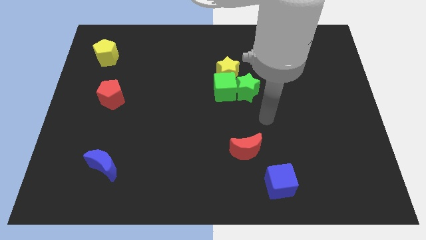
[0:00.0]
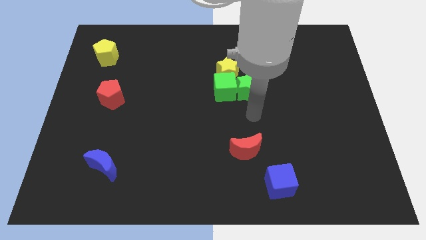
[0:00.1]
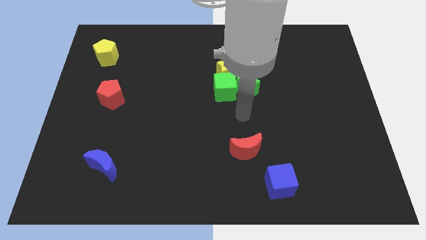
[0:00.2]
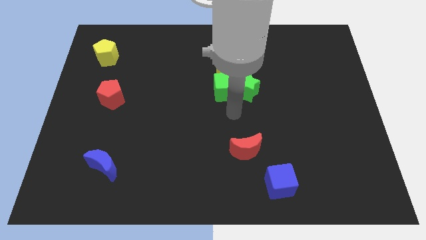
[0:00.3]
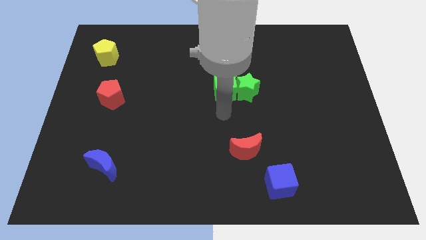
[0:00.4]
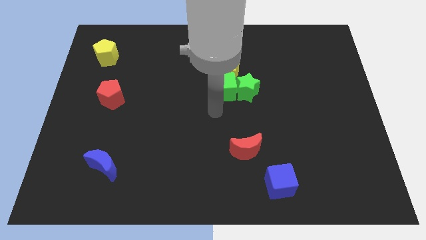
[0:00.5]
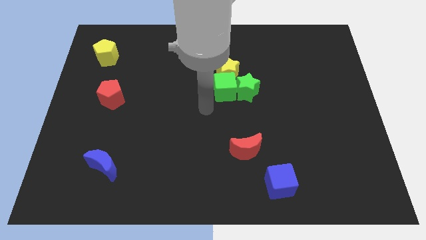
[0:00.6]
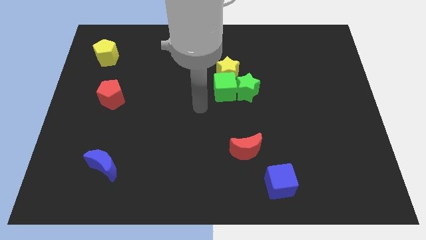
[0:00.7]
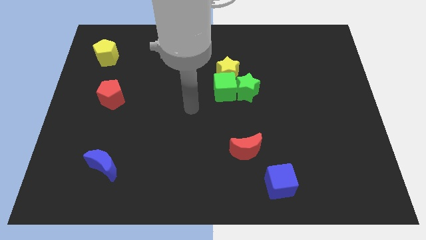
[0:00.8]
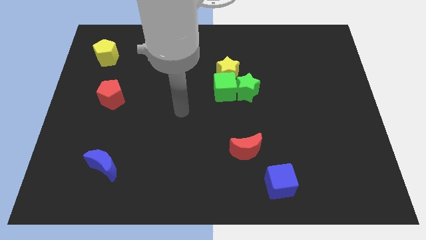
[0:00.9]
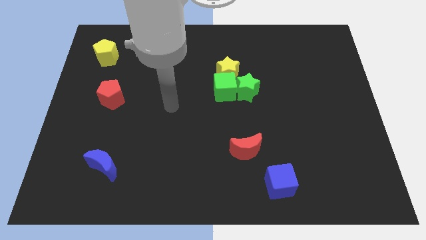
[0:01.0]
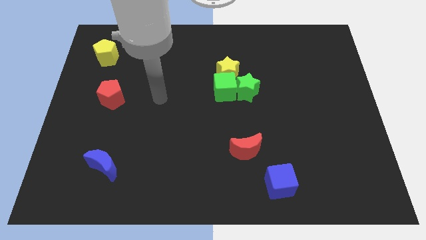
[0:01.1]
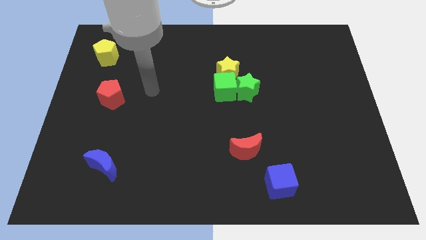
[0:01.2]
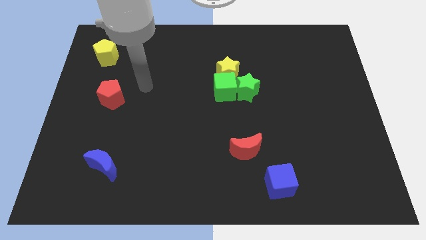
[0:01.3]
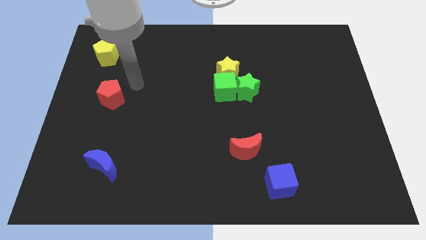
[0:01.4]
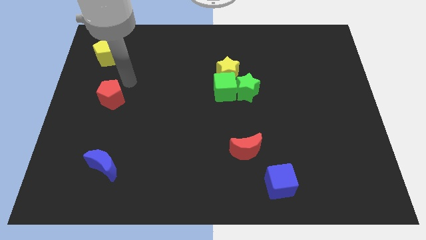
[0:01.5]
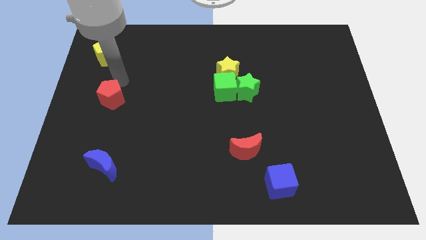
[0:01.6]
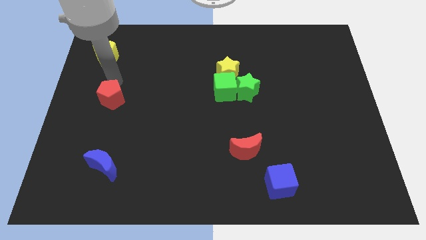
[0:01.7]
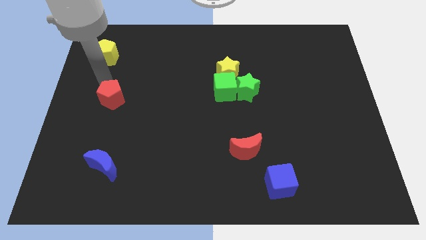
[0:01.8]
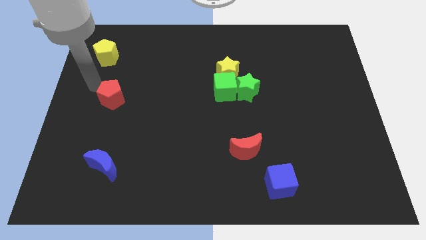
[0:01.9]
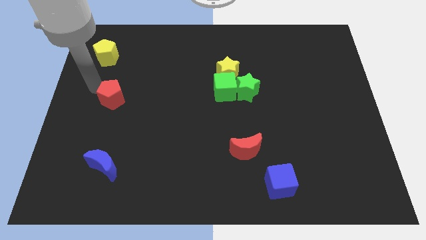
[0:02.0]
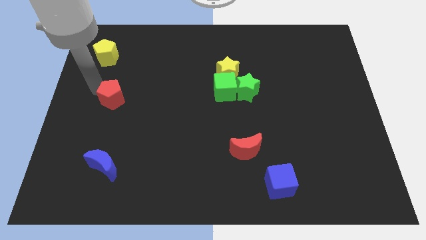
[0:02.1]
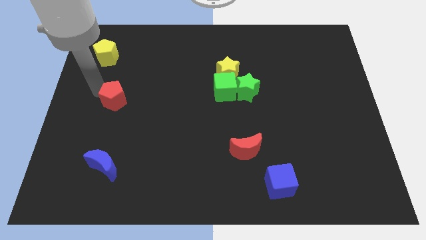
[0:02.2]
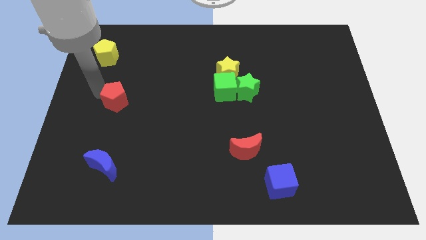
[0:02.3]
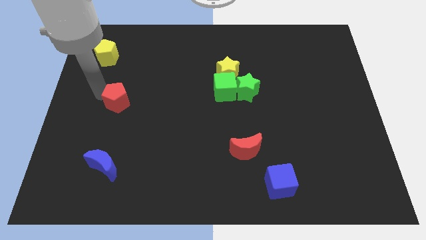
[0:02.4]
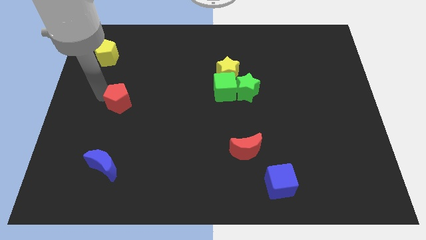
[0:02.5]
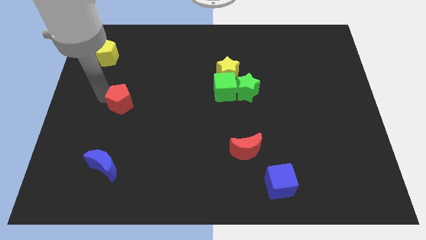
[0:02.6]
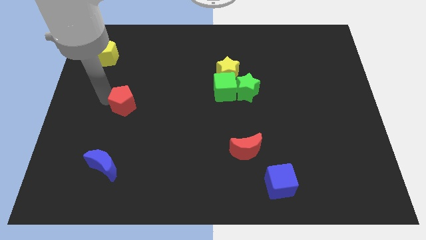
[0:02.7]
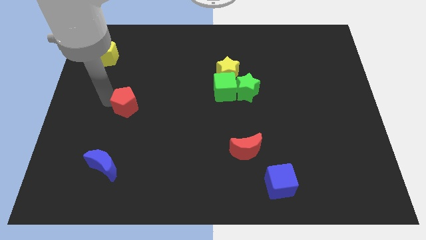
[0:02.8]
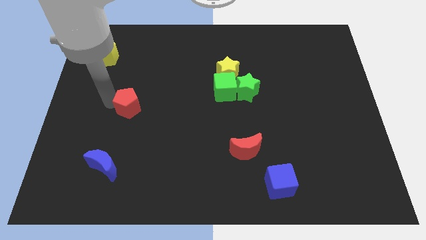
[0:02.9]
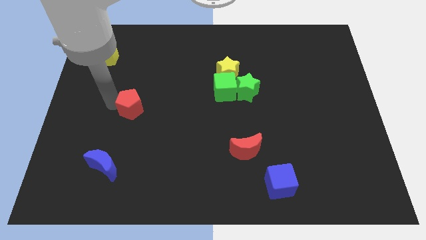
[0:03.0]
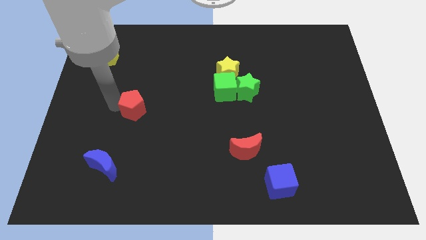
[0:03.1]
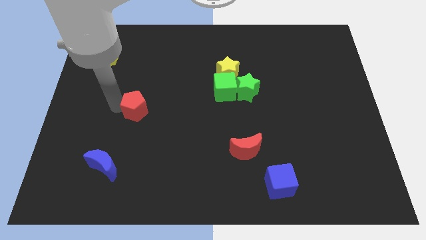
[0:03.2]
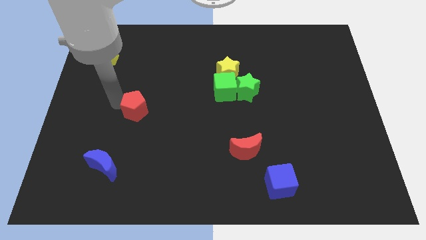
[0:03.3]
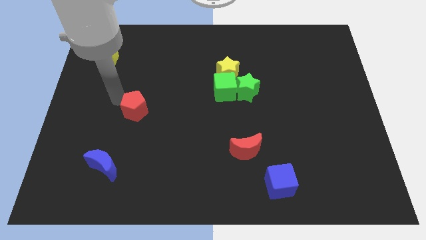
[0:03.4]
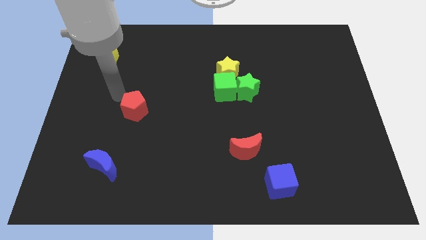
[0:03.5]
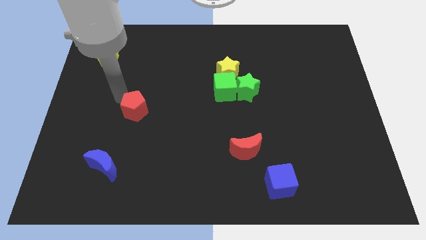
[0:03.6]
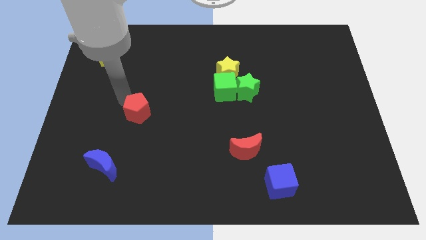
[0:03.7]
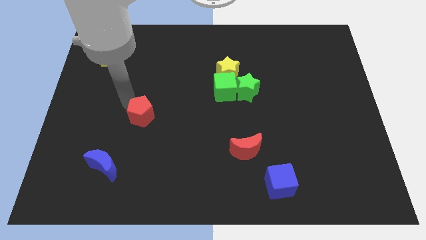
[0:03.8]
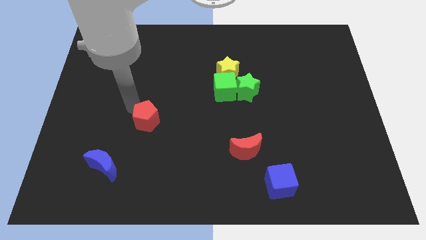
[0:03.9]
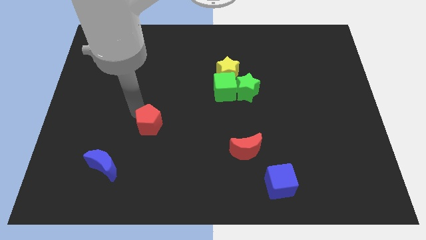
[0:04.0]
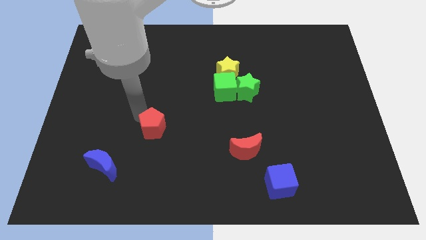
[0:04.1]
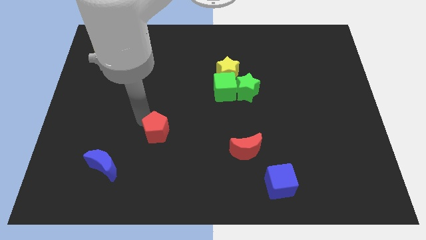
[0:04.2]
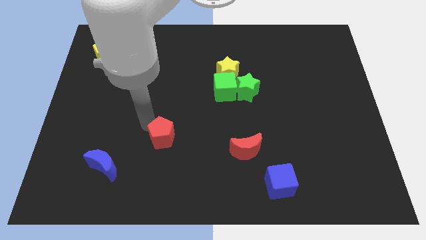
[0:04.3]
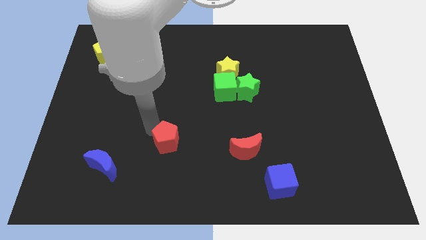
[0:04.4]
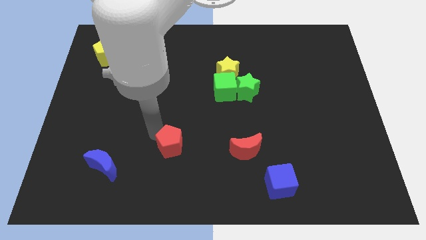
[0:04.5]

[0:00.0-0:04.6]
push the red pentagon to the left side of the red moon

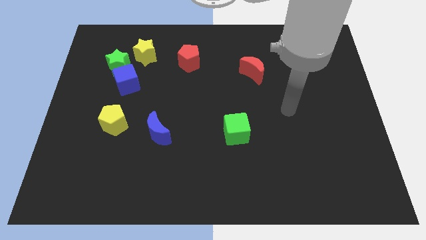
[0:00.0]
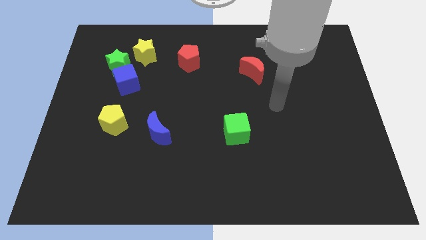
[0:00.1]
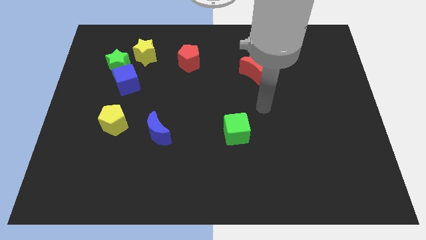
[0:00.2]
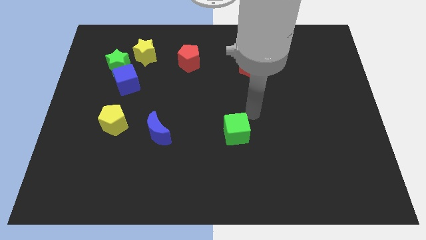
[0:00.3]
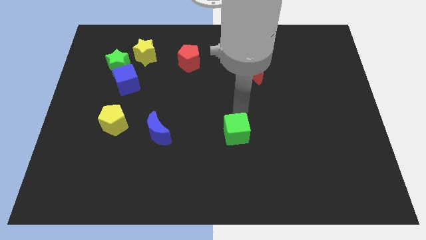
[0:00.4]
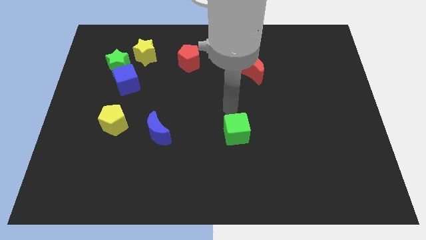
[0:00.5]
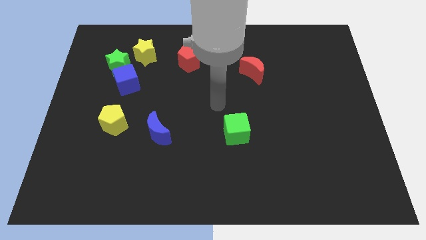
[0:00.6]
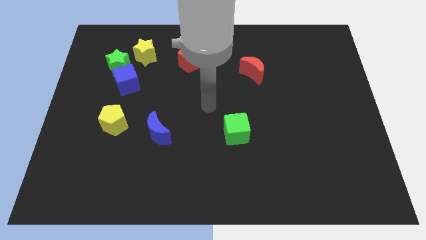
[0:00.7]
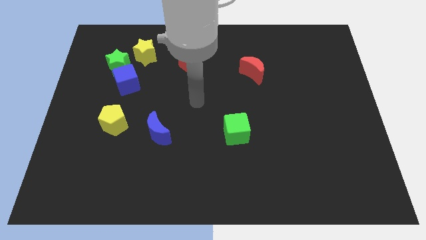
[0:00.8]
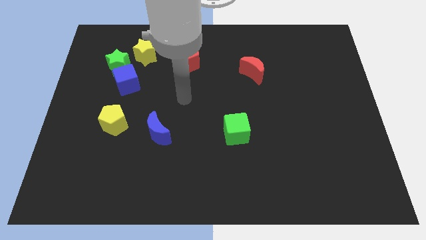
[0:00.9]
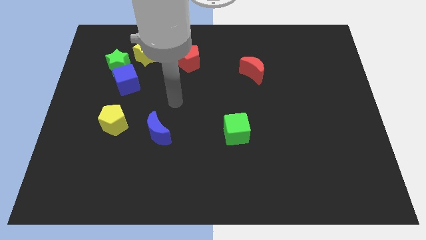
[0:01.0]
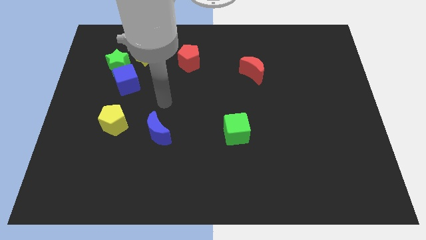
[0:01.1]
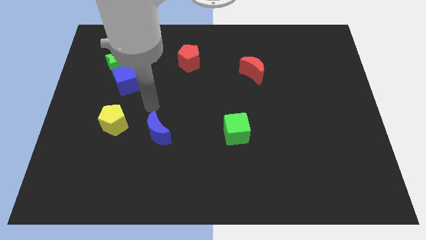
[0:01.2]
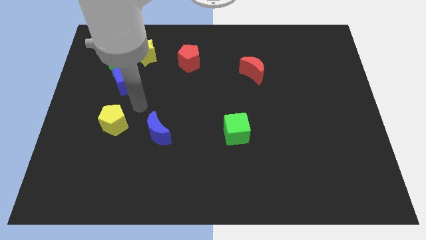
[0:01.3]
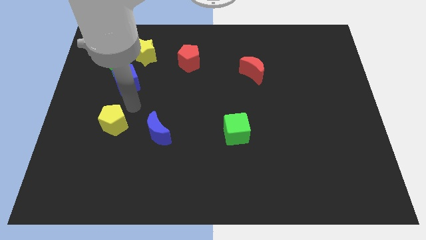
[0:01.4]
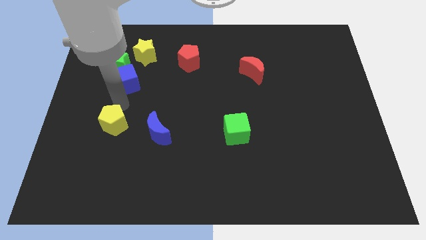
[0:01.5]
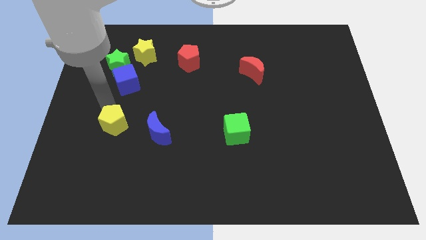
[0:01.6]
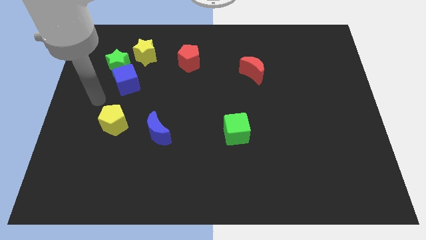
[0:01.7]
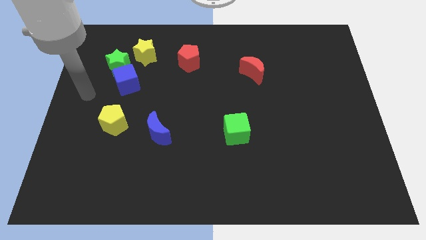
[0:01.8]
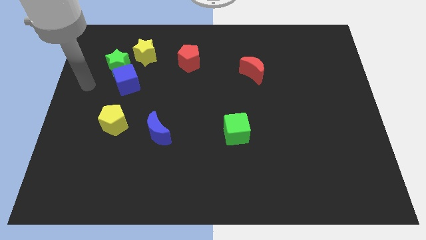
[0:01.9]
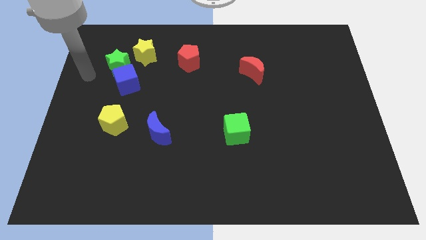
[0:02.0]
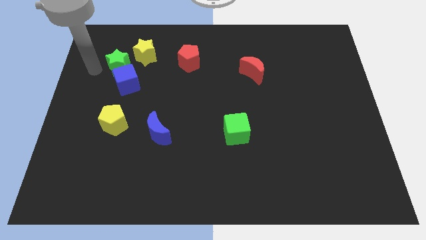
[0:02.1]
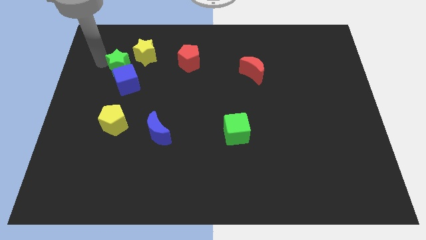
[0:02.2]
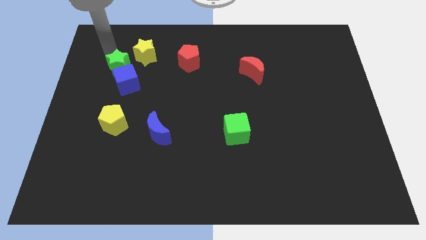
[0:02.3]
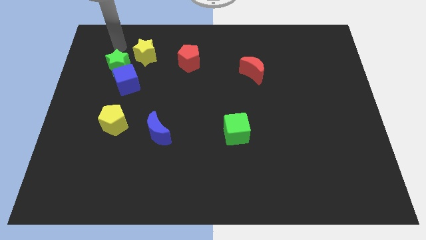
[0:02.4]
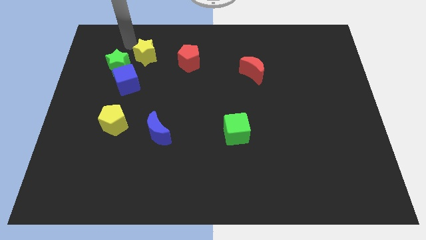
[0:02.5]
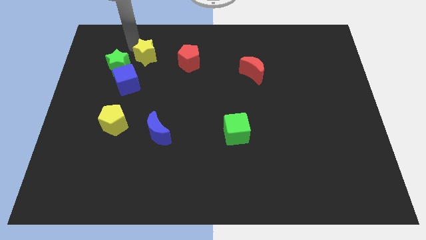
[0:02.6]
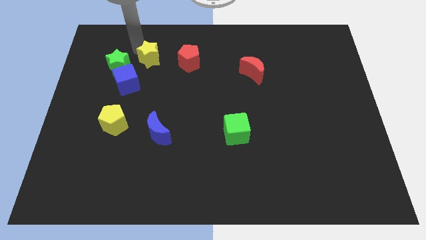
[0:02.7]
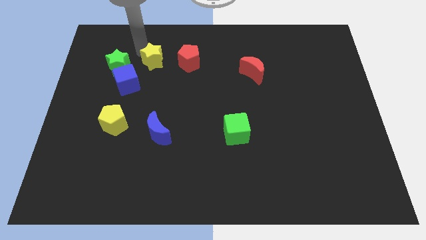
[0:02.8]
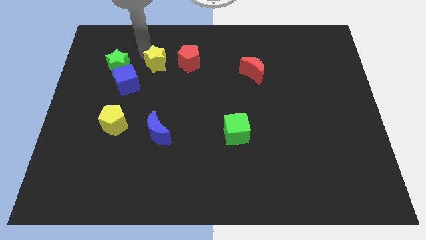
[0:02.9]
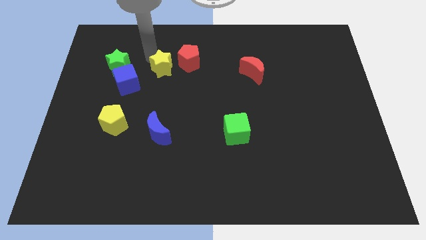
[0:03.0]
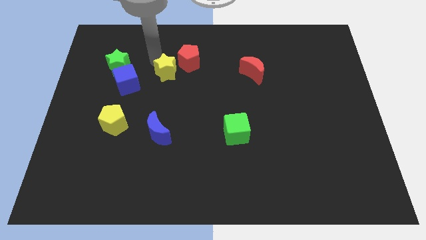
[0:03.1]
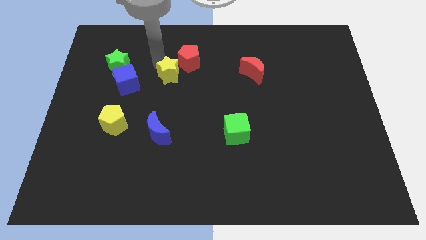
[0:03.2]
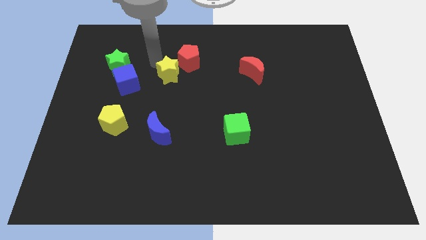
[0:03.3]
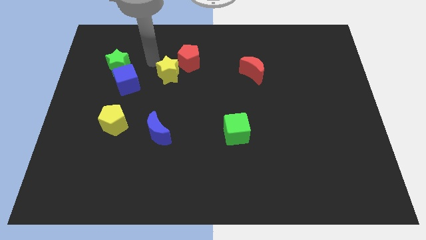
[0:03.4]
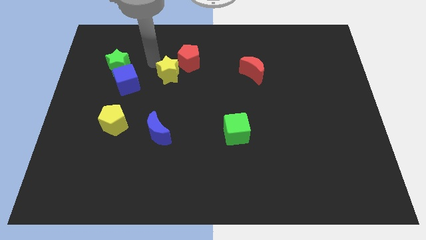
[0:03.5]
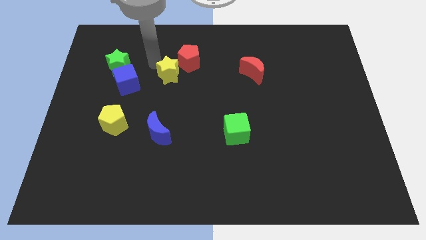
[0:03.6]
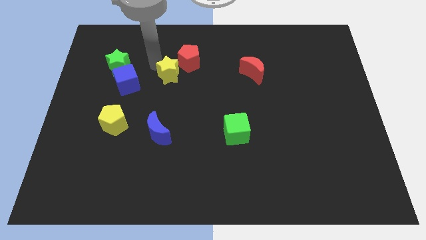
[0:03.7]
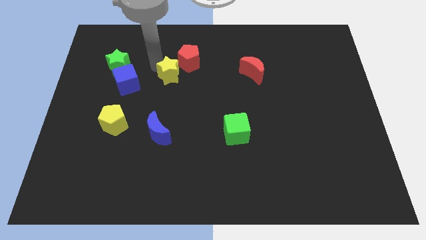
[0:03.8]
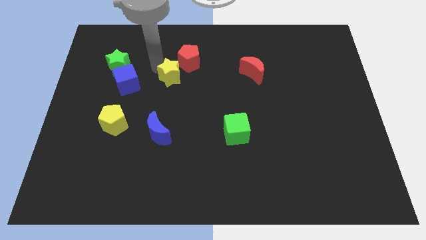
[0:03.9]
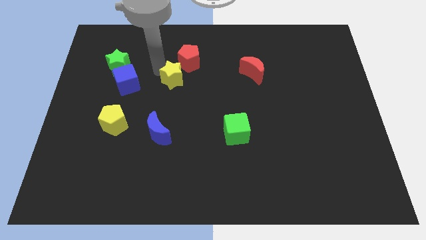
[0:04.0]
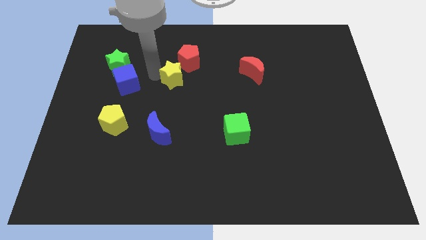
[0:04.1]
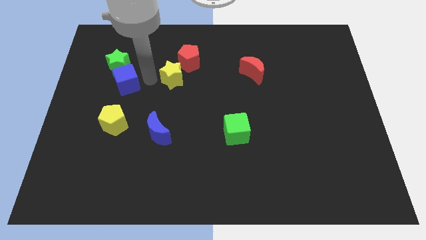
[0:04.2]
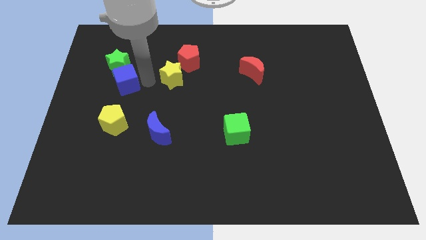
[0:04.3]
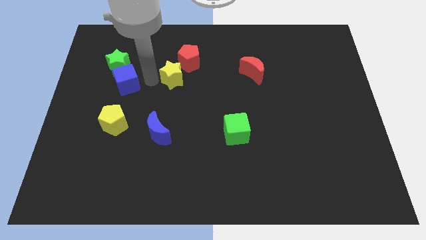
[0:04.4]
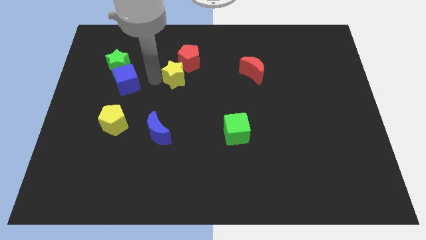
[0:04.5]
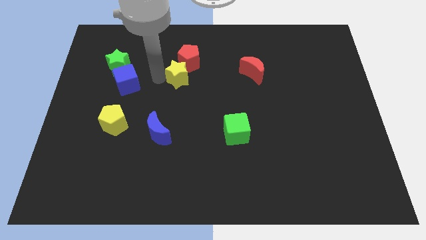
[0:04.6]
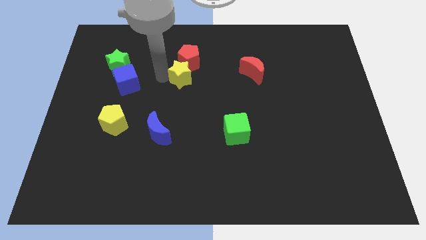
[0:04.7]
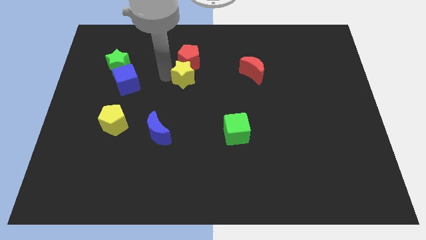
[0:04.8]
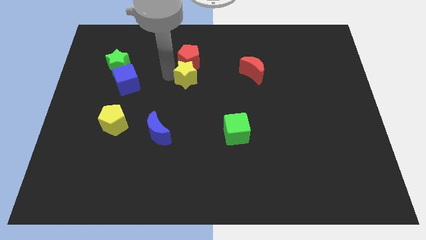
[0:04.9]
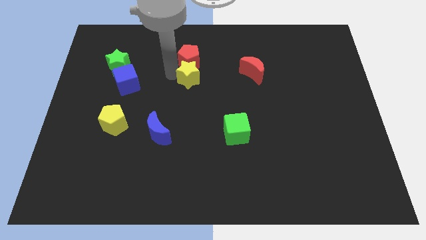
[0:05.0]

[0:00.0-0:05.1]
push the yellow star to the left side of the red moon
